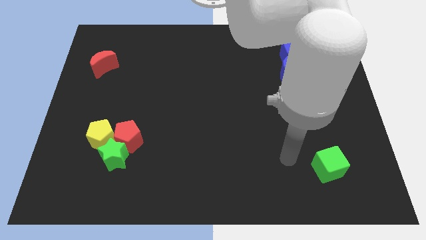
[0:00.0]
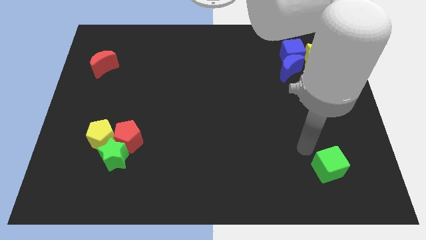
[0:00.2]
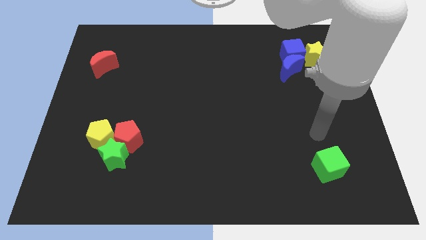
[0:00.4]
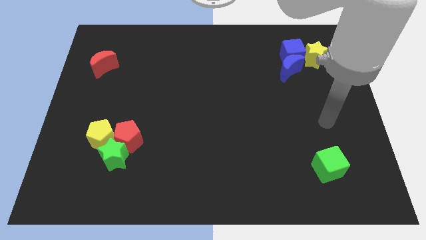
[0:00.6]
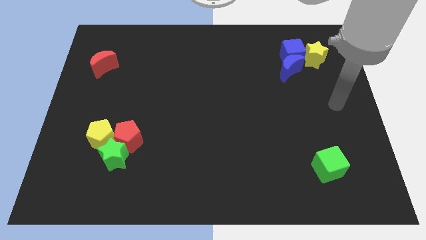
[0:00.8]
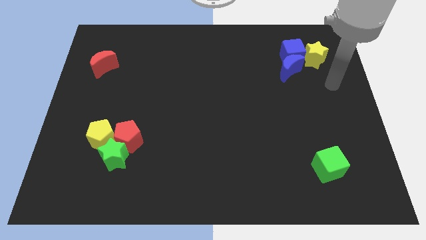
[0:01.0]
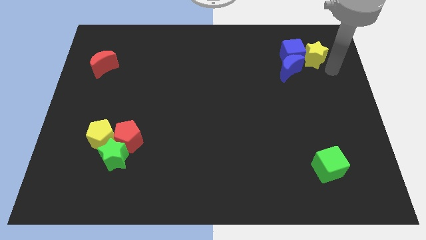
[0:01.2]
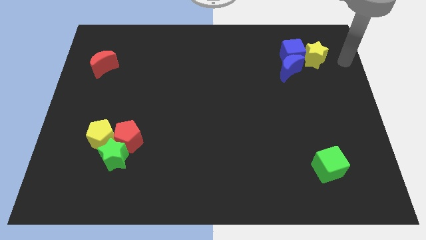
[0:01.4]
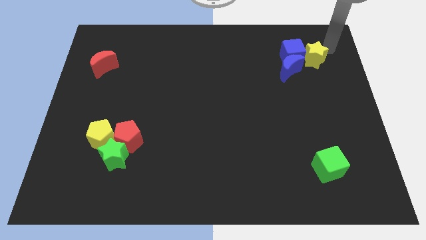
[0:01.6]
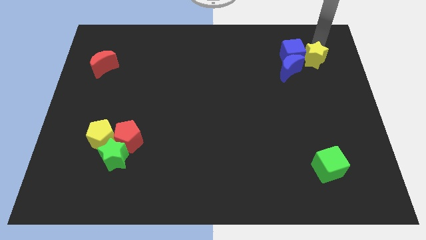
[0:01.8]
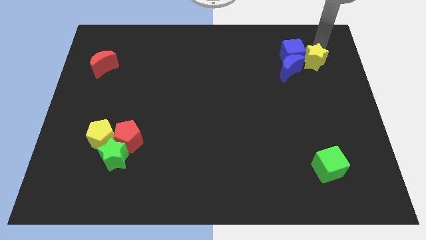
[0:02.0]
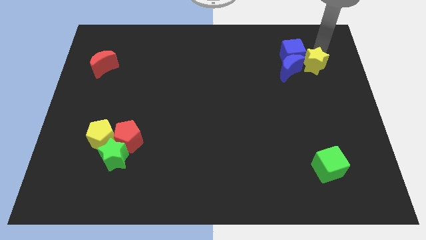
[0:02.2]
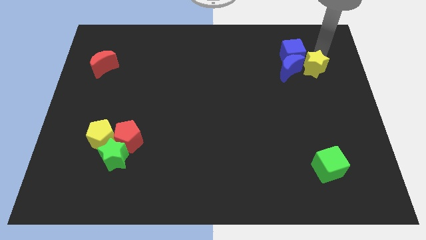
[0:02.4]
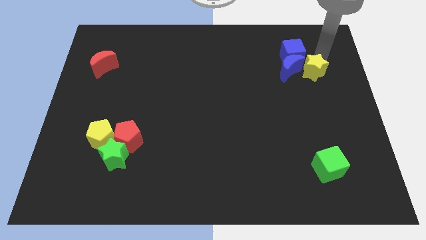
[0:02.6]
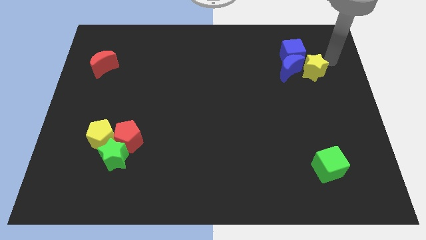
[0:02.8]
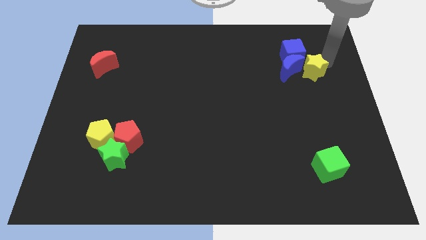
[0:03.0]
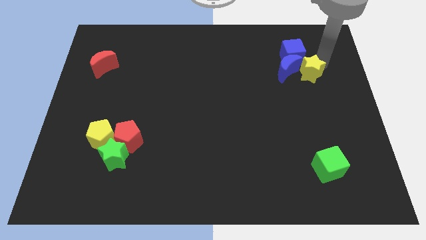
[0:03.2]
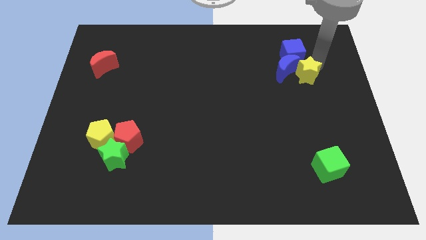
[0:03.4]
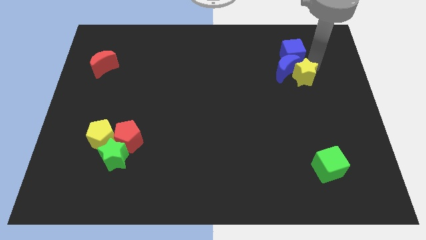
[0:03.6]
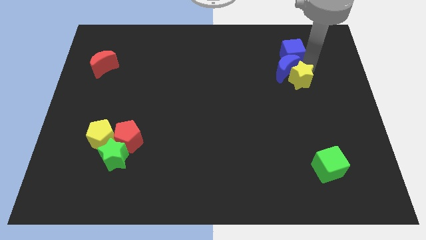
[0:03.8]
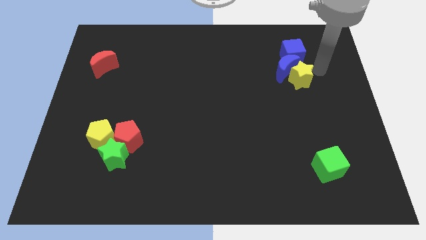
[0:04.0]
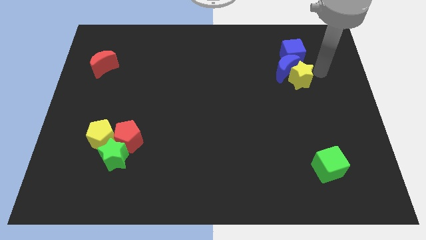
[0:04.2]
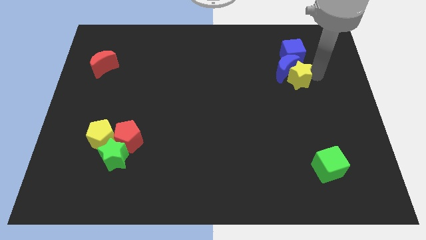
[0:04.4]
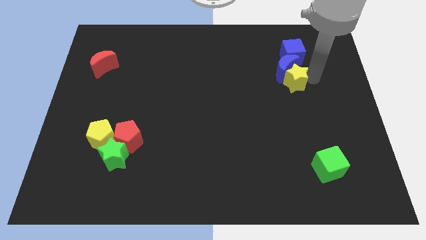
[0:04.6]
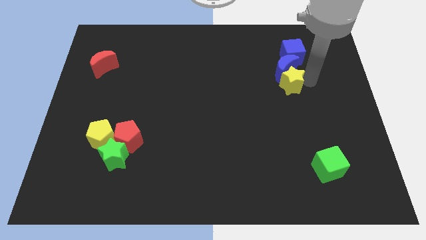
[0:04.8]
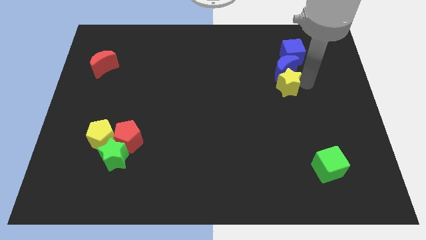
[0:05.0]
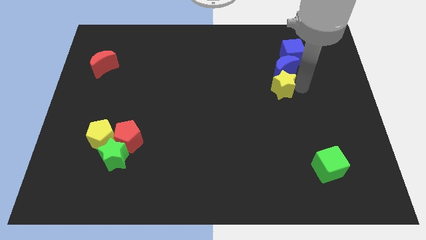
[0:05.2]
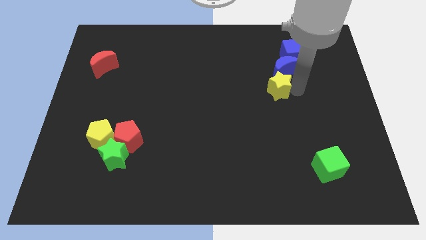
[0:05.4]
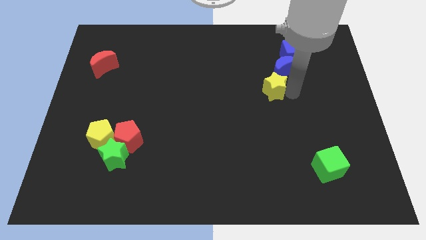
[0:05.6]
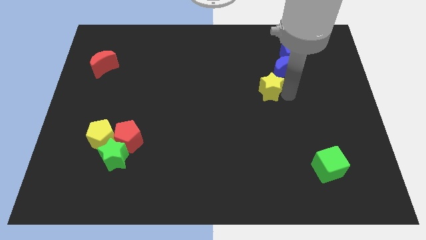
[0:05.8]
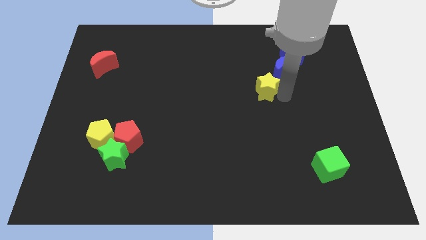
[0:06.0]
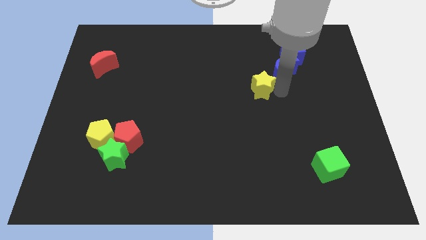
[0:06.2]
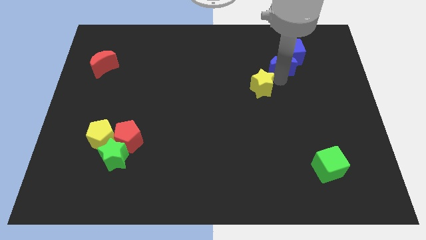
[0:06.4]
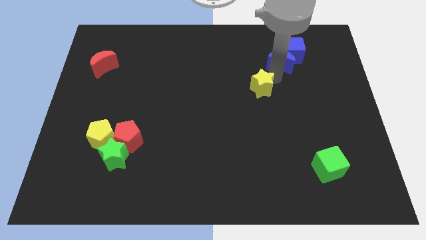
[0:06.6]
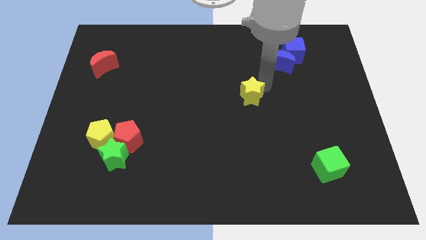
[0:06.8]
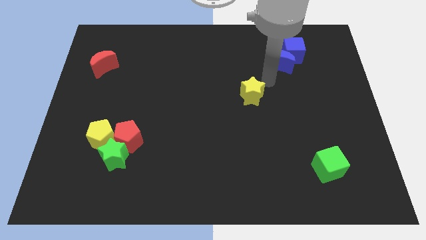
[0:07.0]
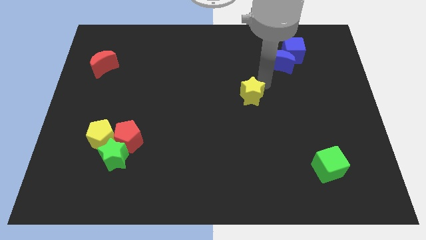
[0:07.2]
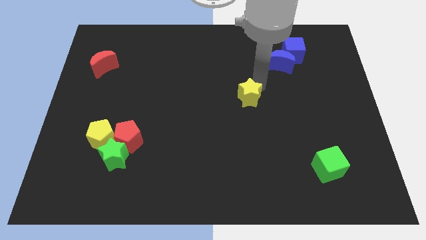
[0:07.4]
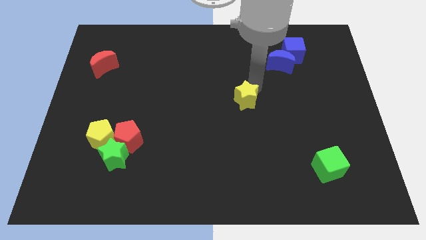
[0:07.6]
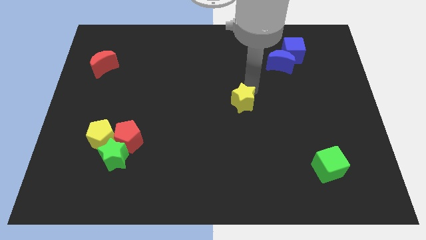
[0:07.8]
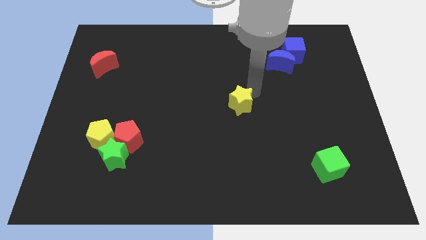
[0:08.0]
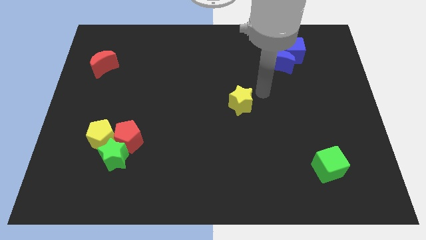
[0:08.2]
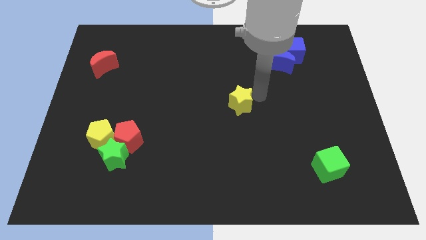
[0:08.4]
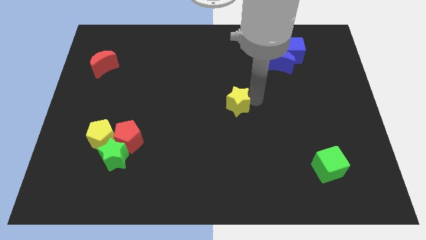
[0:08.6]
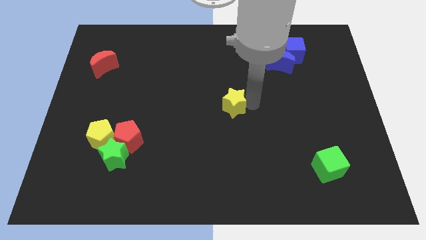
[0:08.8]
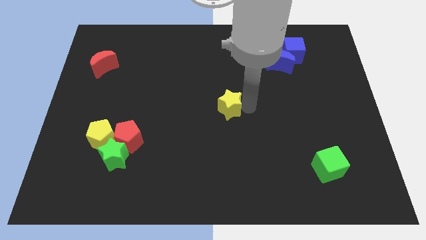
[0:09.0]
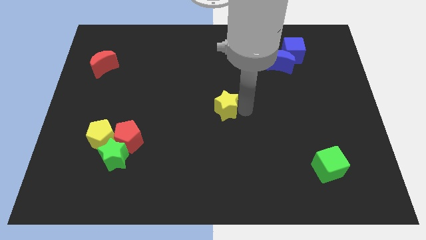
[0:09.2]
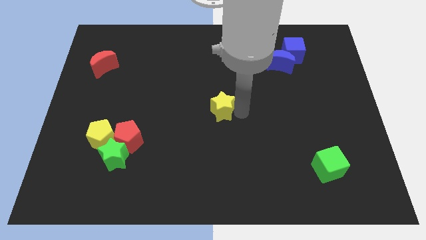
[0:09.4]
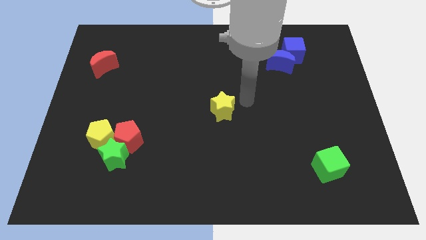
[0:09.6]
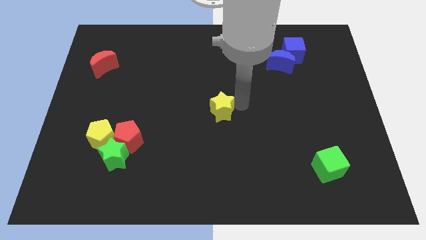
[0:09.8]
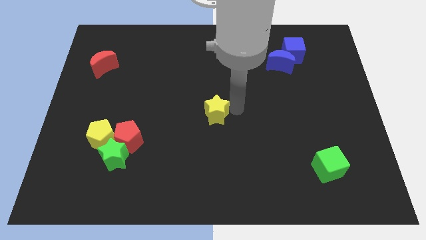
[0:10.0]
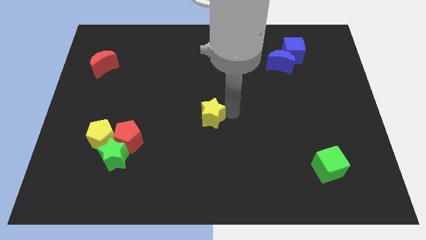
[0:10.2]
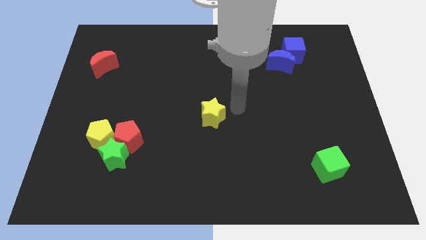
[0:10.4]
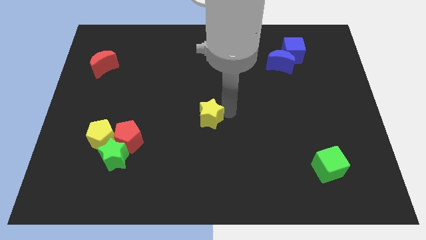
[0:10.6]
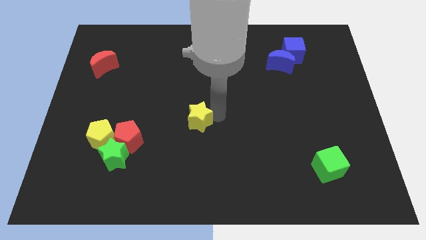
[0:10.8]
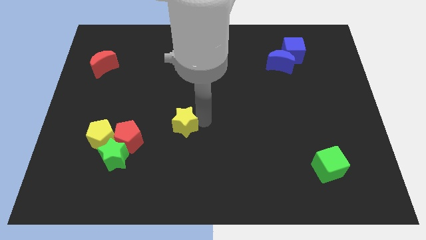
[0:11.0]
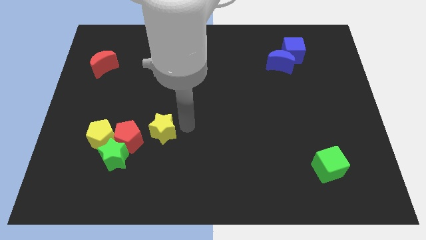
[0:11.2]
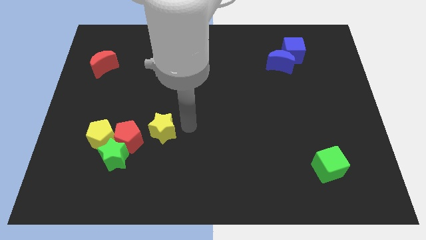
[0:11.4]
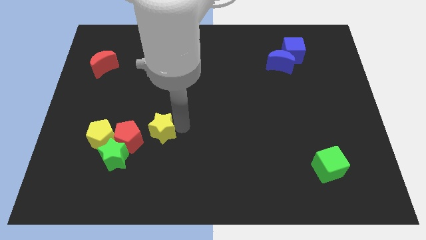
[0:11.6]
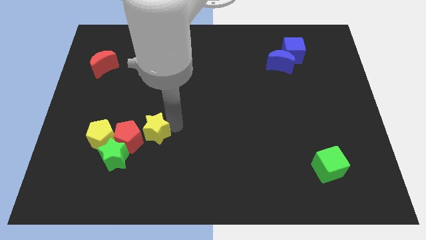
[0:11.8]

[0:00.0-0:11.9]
slide the yellow star next to the red pentagon

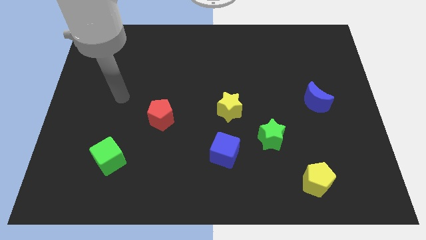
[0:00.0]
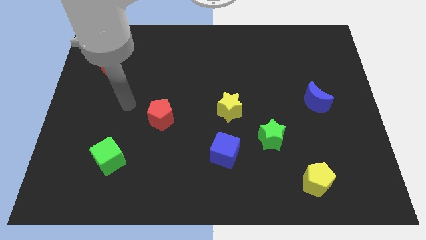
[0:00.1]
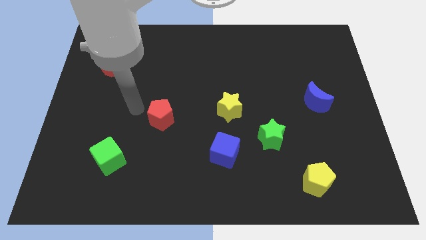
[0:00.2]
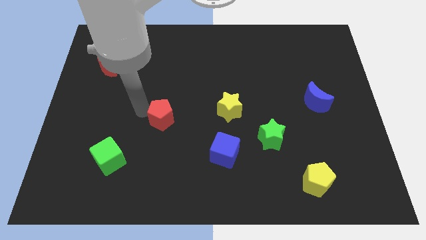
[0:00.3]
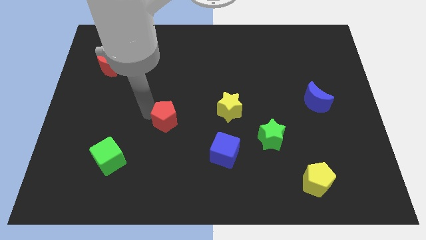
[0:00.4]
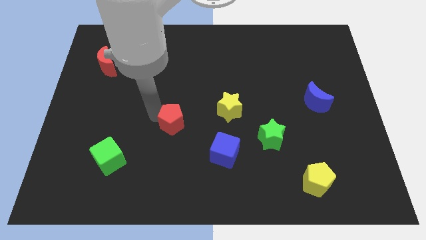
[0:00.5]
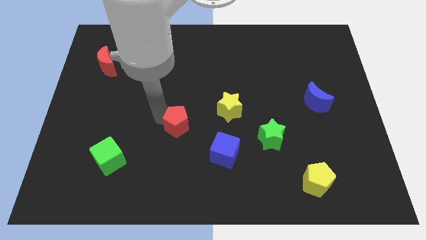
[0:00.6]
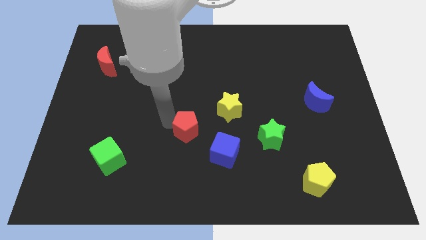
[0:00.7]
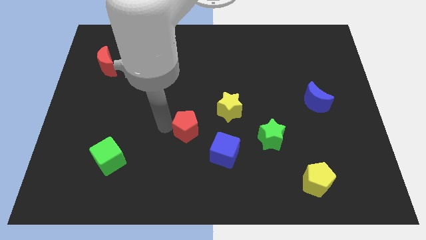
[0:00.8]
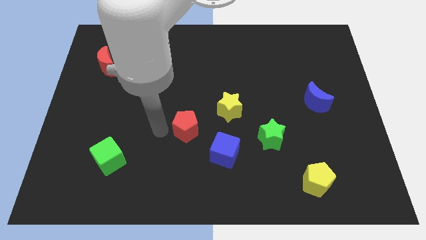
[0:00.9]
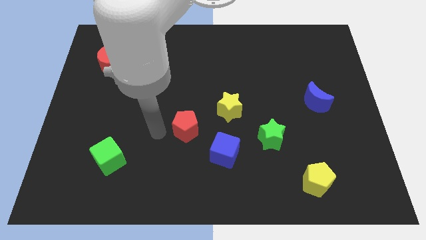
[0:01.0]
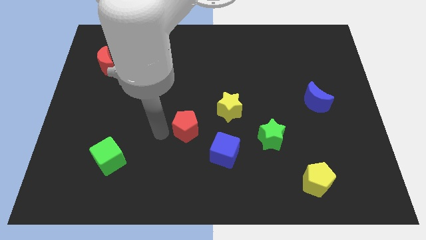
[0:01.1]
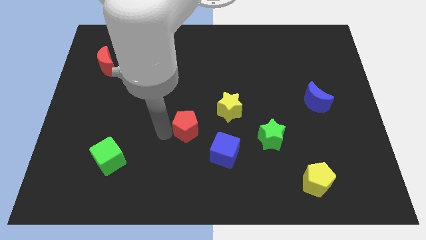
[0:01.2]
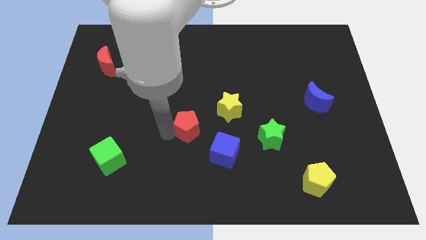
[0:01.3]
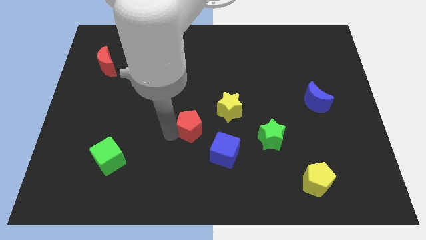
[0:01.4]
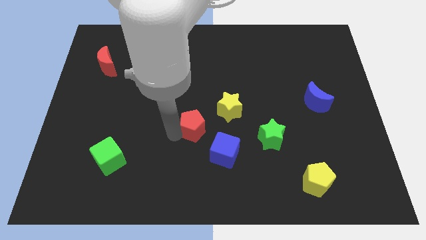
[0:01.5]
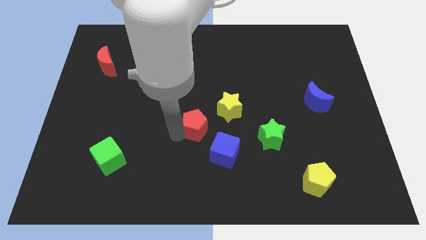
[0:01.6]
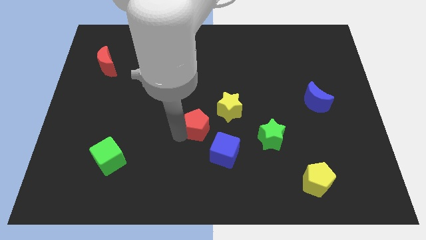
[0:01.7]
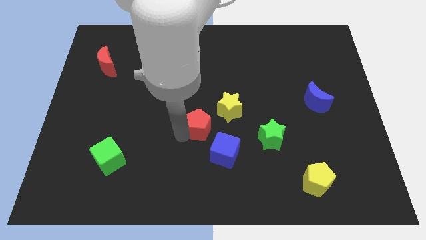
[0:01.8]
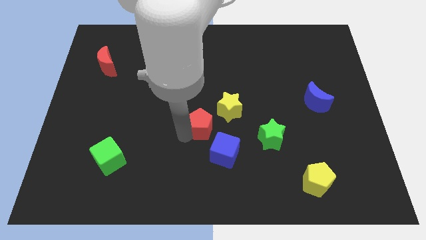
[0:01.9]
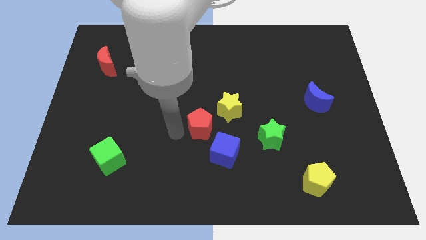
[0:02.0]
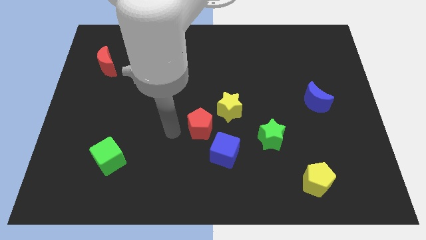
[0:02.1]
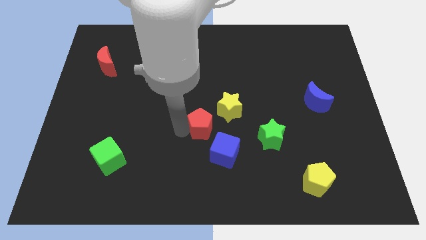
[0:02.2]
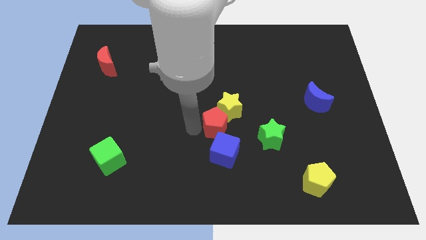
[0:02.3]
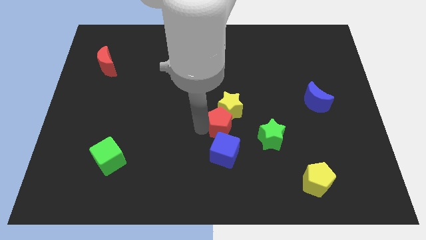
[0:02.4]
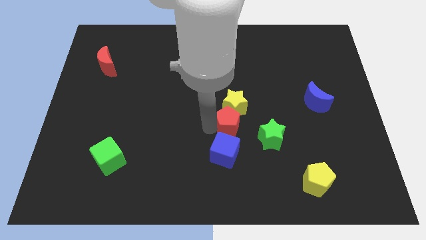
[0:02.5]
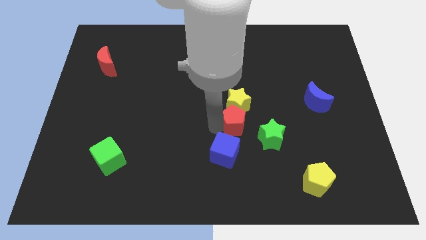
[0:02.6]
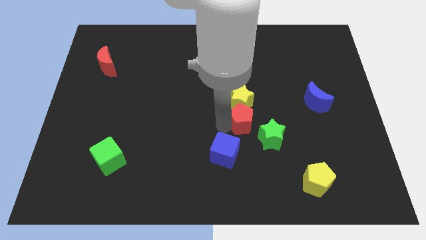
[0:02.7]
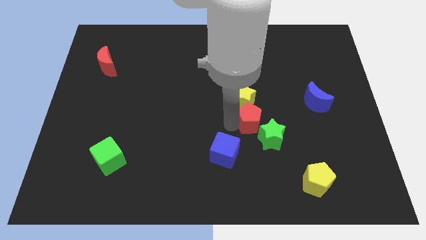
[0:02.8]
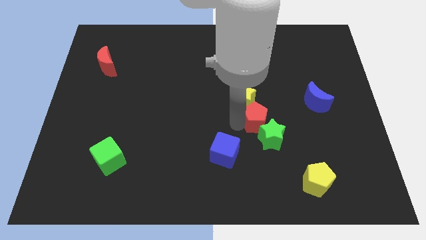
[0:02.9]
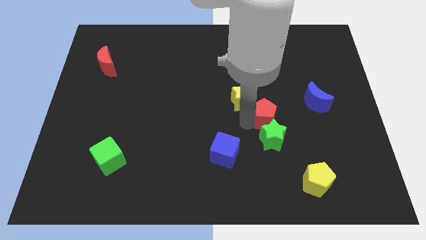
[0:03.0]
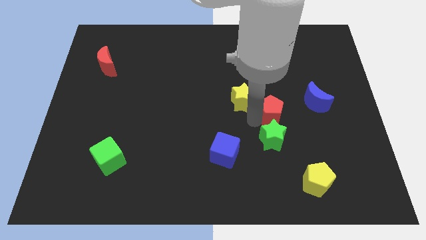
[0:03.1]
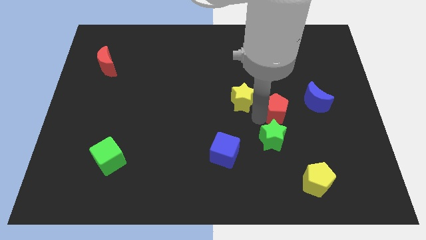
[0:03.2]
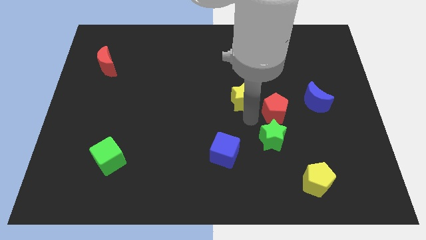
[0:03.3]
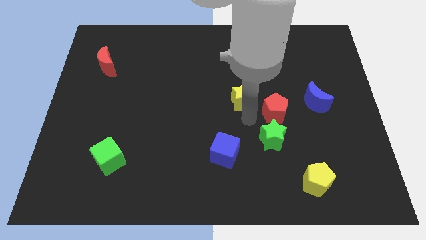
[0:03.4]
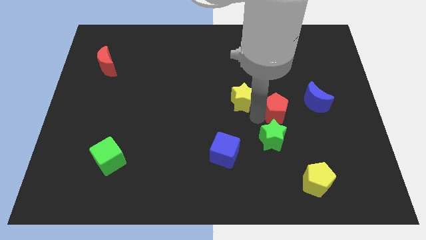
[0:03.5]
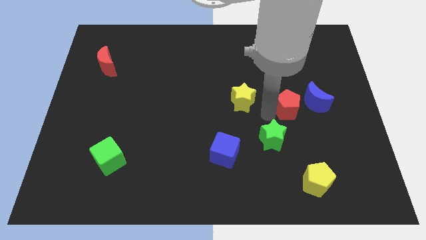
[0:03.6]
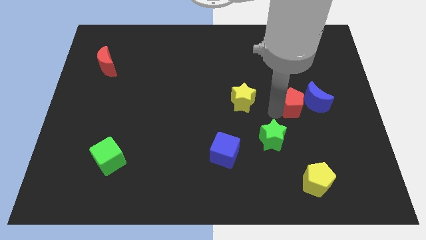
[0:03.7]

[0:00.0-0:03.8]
push the red pentagon to the blue moon
